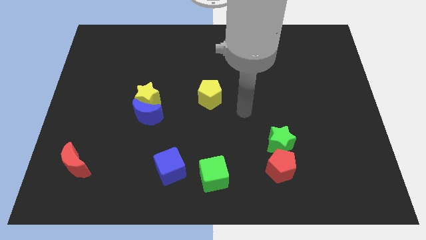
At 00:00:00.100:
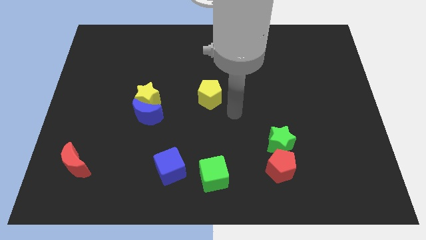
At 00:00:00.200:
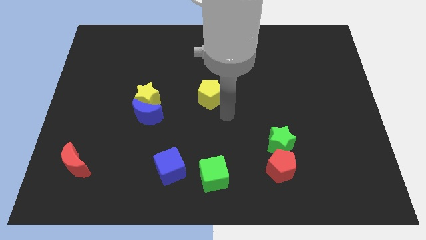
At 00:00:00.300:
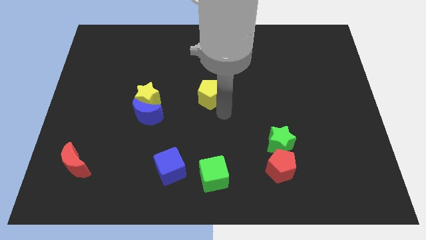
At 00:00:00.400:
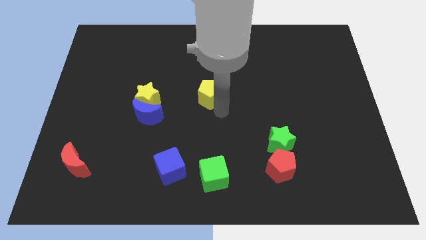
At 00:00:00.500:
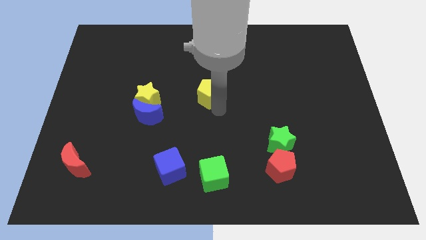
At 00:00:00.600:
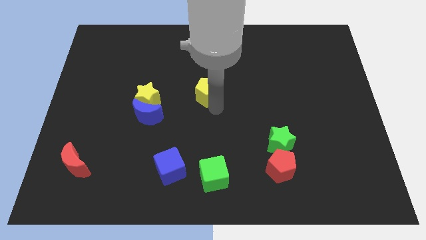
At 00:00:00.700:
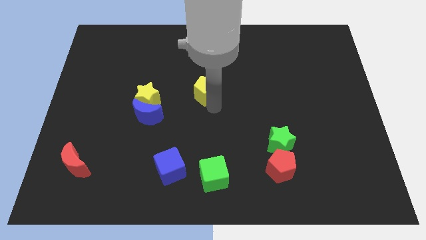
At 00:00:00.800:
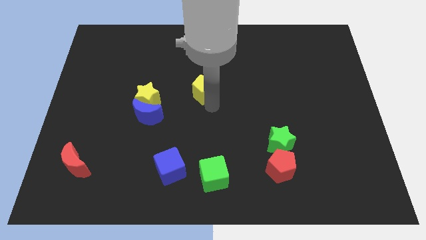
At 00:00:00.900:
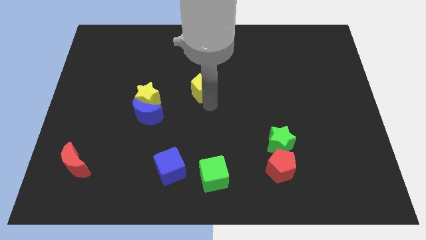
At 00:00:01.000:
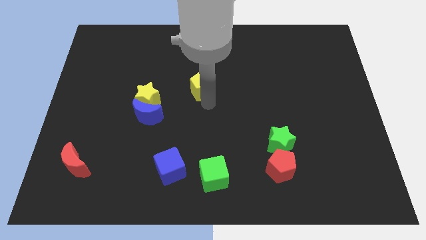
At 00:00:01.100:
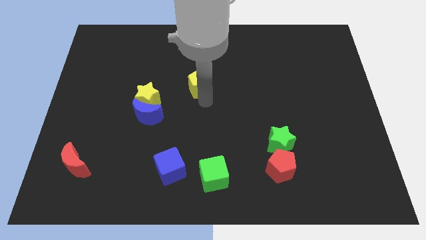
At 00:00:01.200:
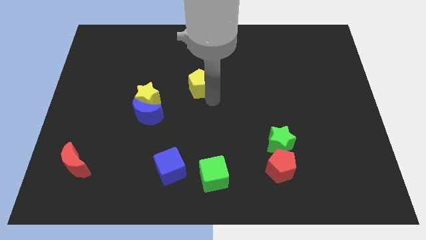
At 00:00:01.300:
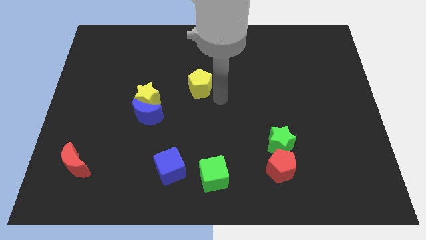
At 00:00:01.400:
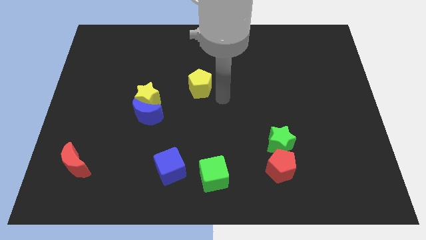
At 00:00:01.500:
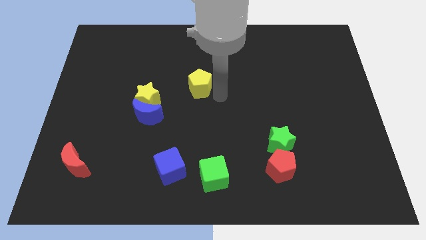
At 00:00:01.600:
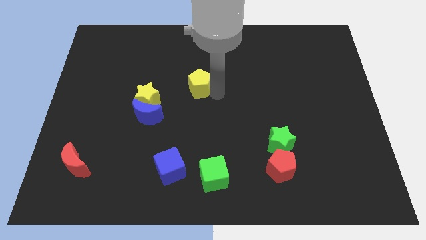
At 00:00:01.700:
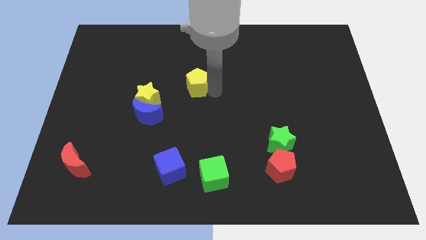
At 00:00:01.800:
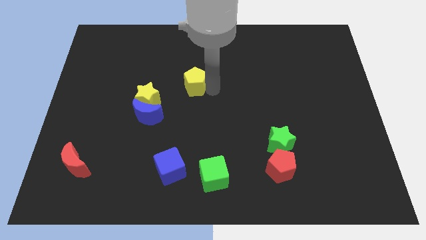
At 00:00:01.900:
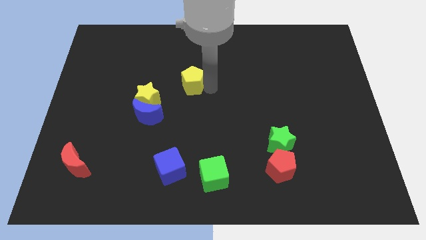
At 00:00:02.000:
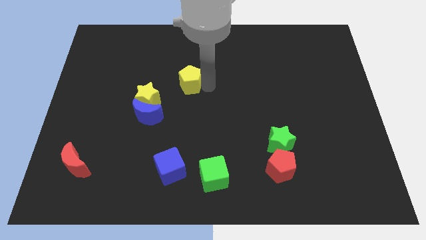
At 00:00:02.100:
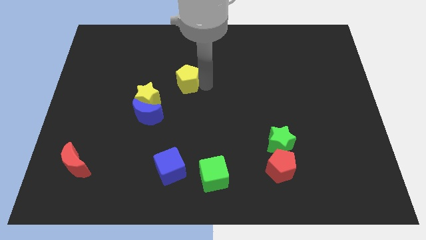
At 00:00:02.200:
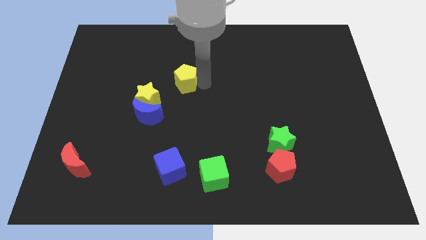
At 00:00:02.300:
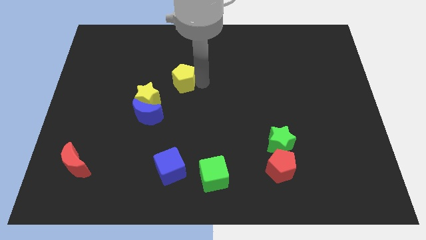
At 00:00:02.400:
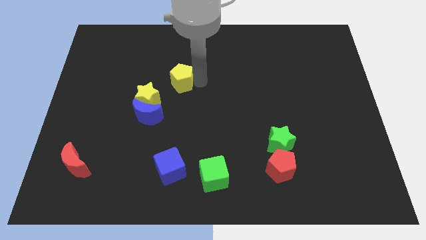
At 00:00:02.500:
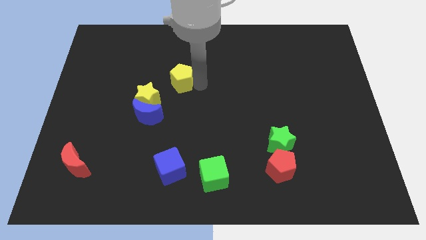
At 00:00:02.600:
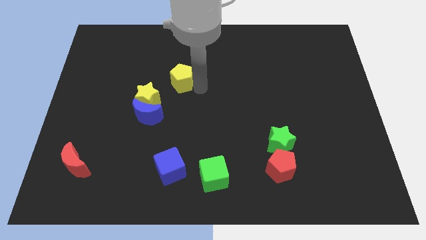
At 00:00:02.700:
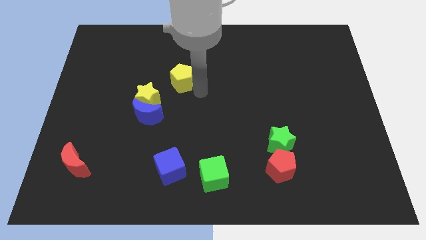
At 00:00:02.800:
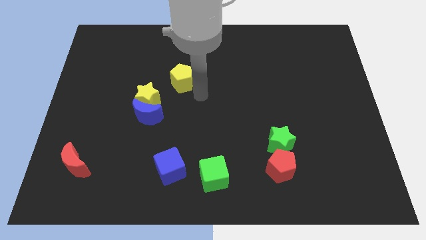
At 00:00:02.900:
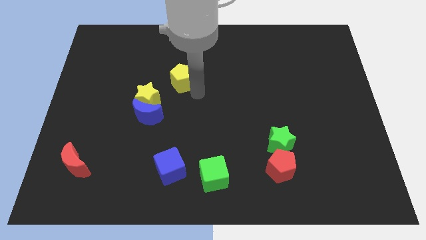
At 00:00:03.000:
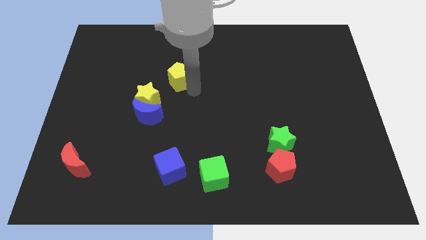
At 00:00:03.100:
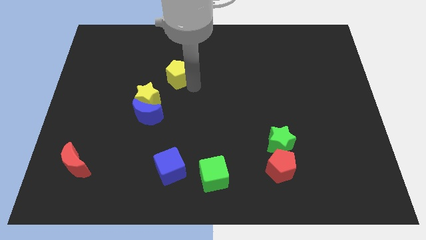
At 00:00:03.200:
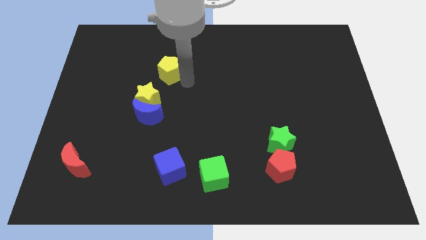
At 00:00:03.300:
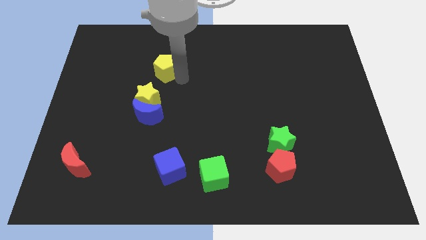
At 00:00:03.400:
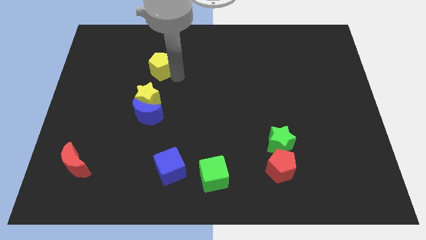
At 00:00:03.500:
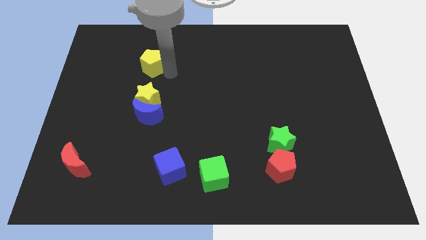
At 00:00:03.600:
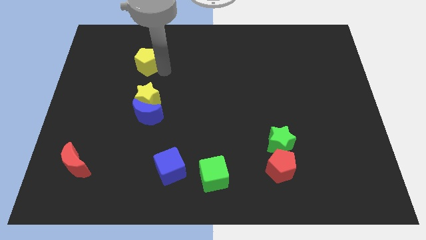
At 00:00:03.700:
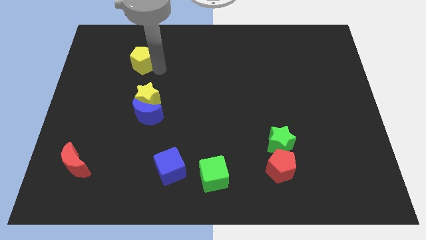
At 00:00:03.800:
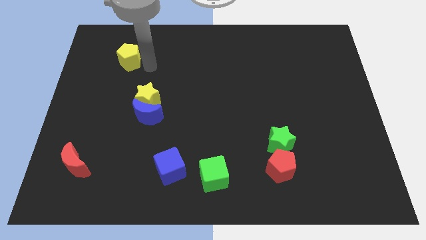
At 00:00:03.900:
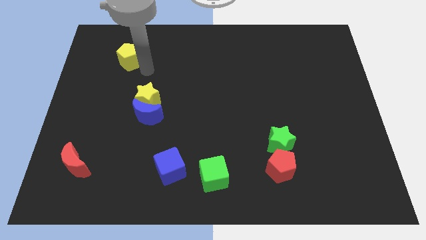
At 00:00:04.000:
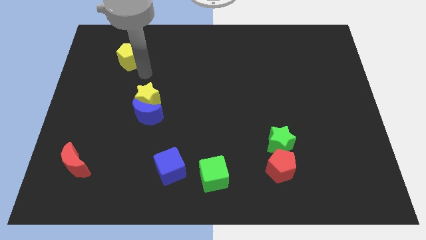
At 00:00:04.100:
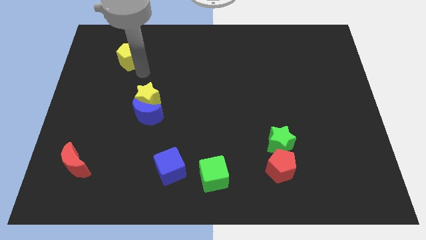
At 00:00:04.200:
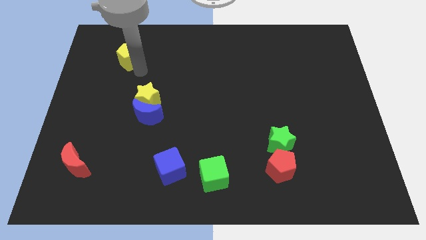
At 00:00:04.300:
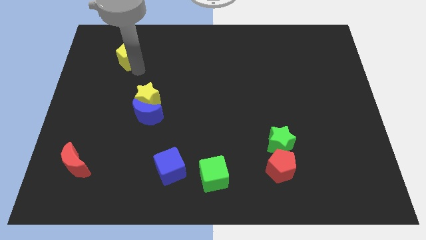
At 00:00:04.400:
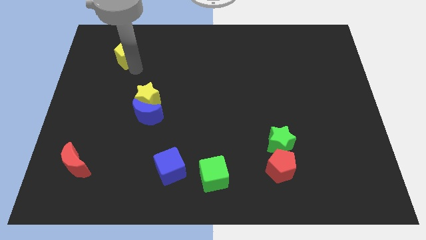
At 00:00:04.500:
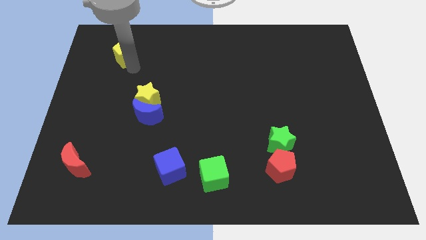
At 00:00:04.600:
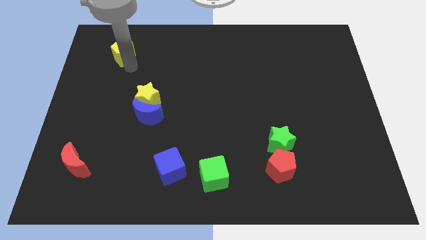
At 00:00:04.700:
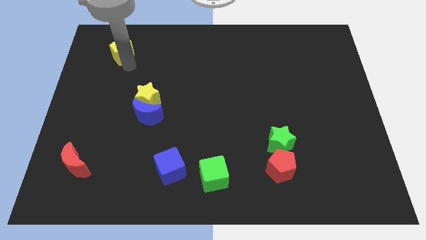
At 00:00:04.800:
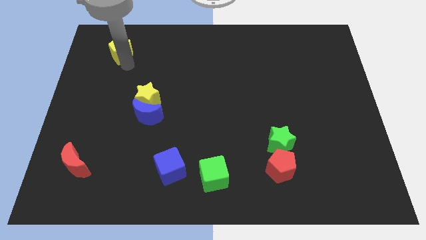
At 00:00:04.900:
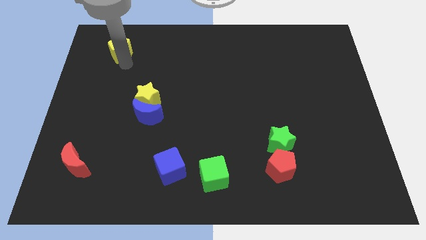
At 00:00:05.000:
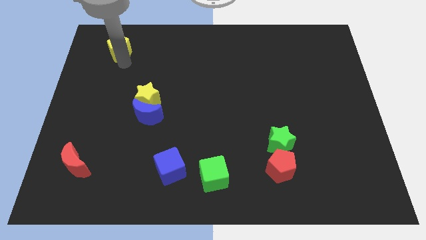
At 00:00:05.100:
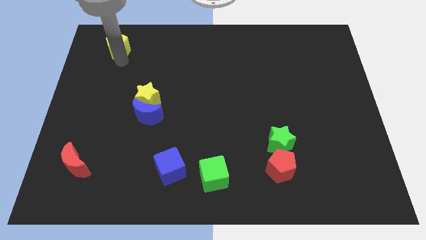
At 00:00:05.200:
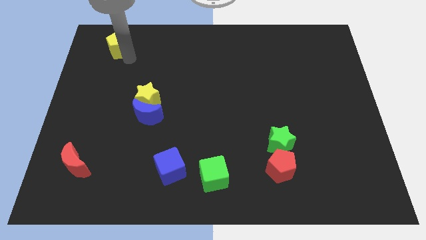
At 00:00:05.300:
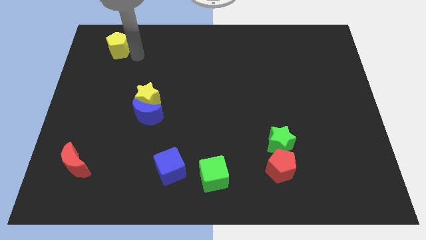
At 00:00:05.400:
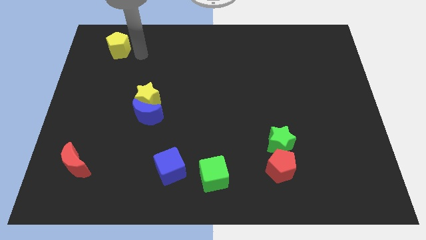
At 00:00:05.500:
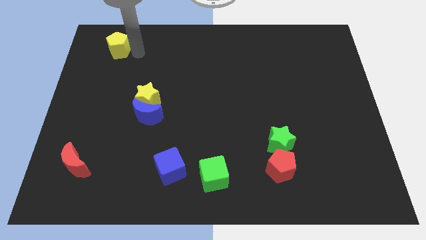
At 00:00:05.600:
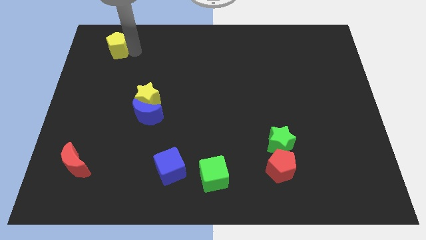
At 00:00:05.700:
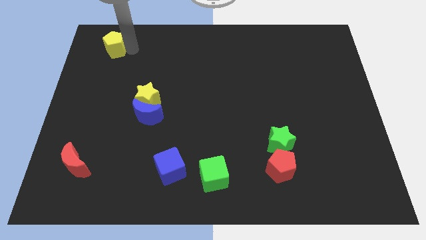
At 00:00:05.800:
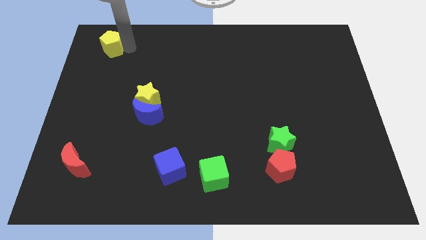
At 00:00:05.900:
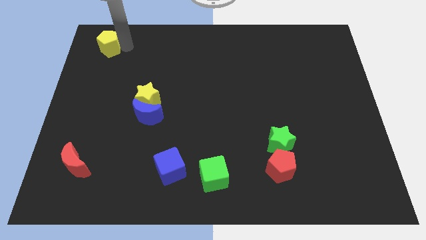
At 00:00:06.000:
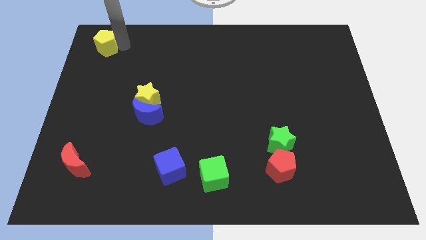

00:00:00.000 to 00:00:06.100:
move the yellow pentagon to the top left of the board

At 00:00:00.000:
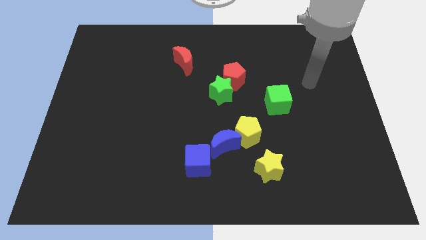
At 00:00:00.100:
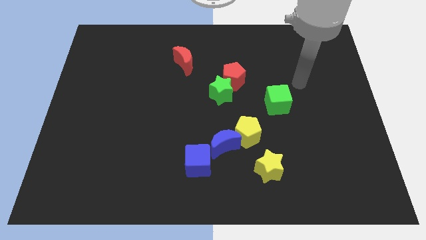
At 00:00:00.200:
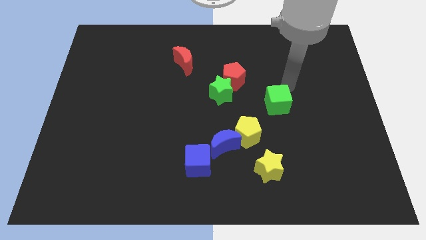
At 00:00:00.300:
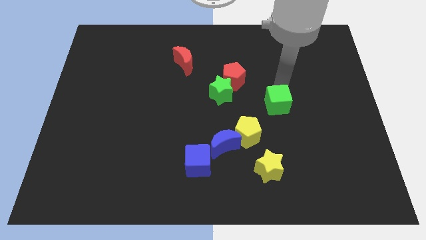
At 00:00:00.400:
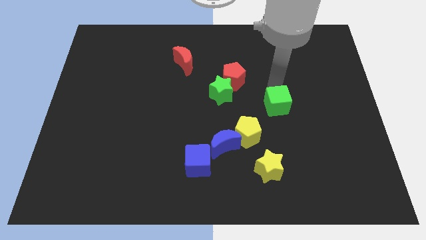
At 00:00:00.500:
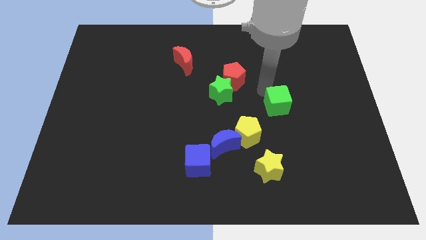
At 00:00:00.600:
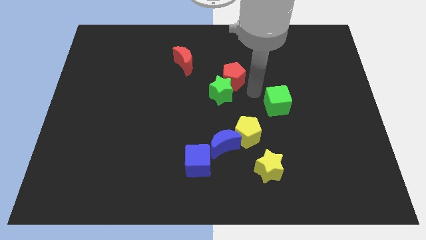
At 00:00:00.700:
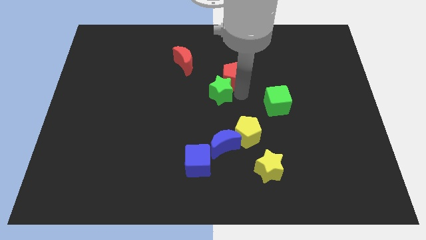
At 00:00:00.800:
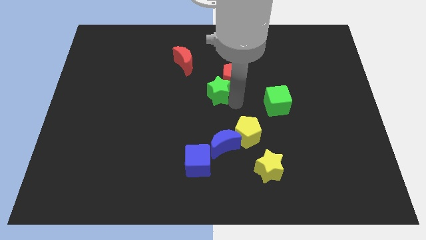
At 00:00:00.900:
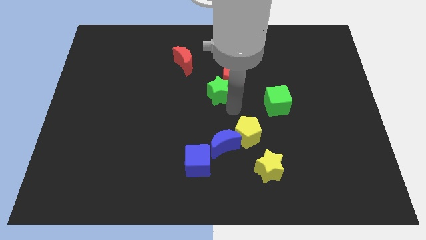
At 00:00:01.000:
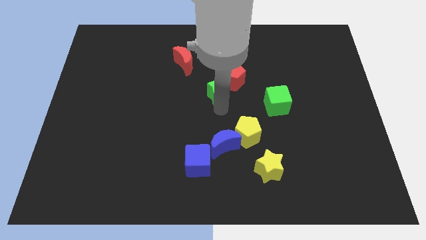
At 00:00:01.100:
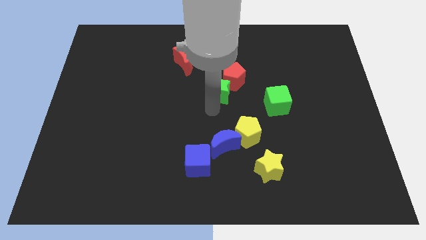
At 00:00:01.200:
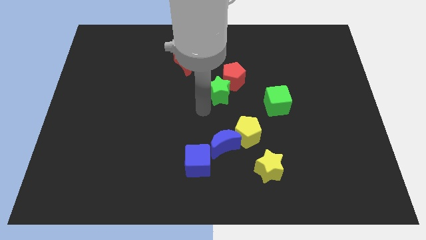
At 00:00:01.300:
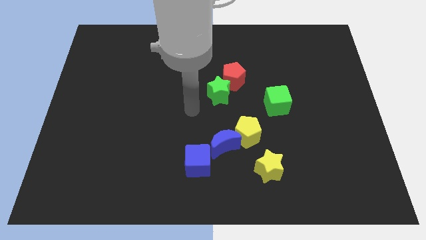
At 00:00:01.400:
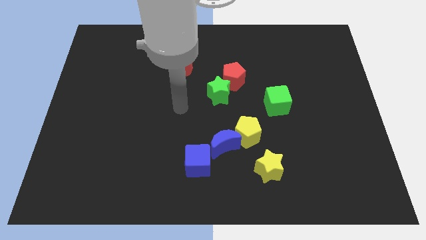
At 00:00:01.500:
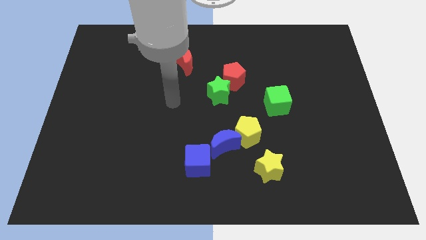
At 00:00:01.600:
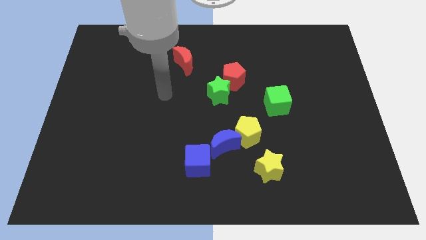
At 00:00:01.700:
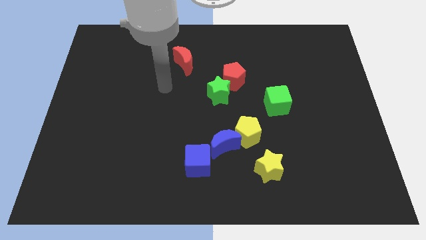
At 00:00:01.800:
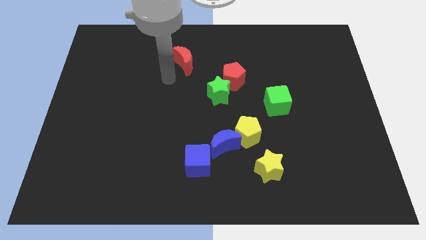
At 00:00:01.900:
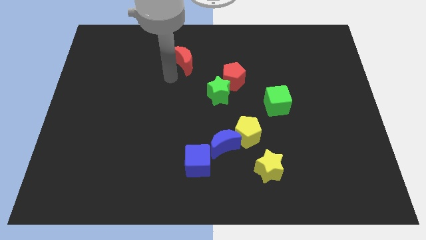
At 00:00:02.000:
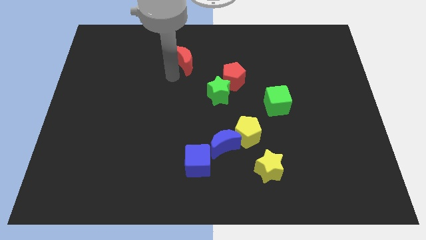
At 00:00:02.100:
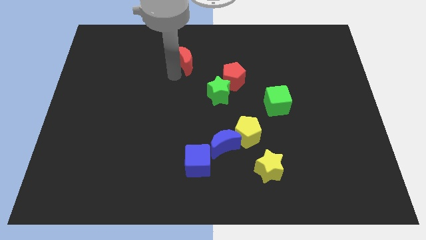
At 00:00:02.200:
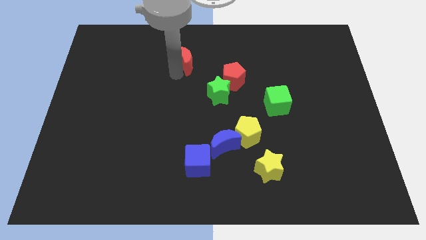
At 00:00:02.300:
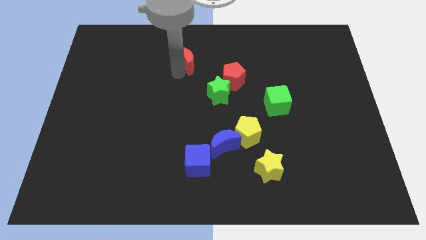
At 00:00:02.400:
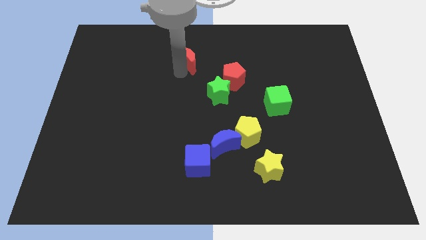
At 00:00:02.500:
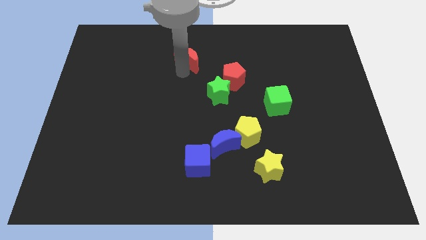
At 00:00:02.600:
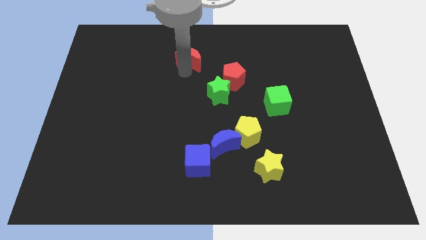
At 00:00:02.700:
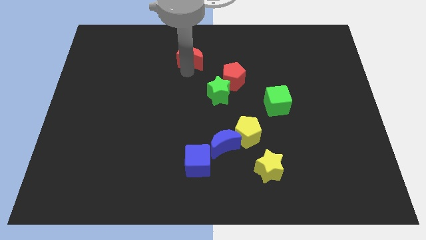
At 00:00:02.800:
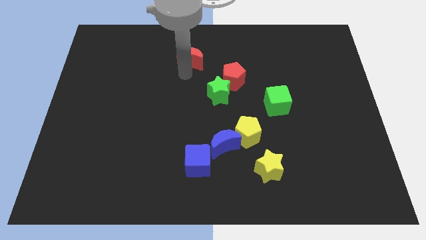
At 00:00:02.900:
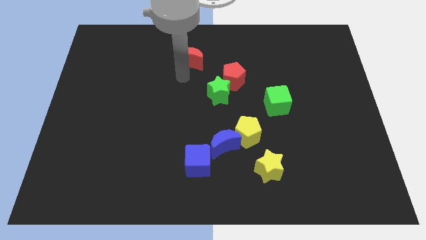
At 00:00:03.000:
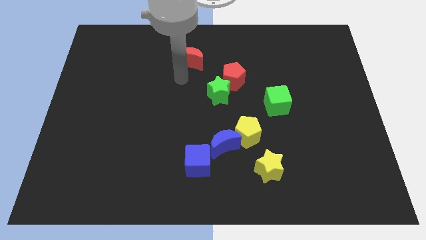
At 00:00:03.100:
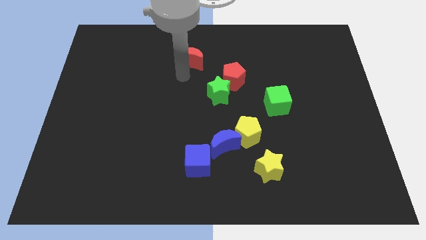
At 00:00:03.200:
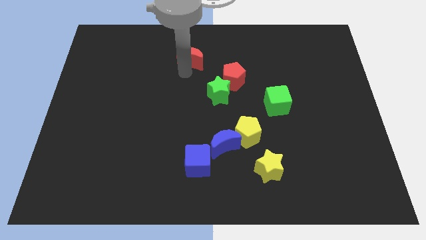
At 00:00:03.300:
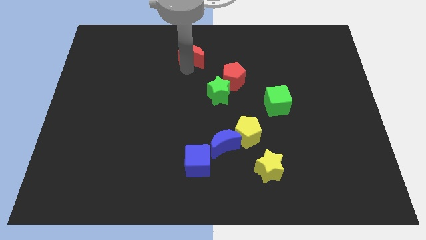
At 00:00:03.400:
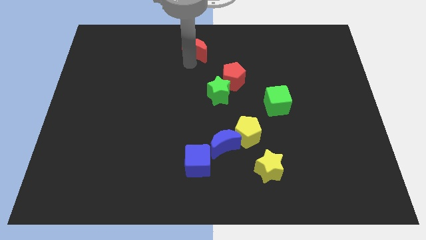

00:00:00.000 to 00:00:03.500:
push the red moon to the top side
